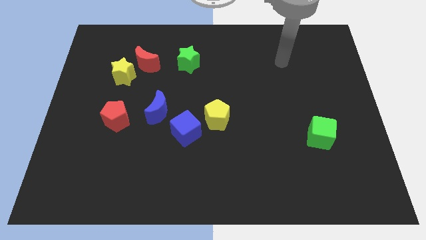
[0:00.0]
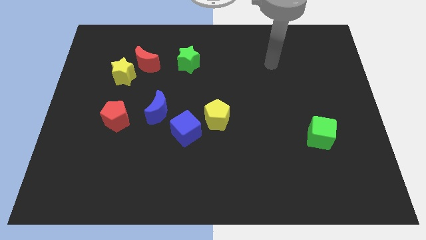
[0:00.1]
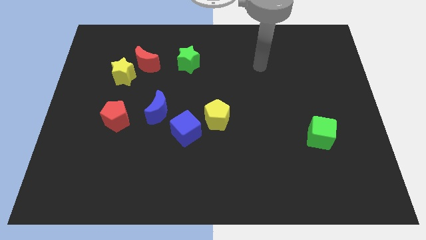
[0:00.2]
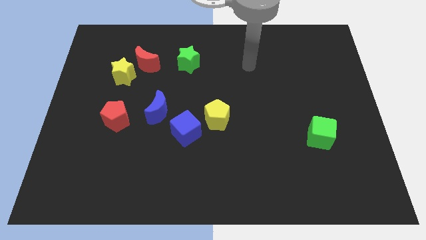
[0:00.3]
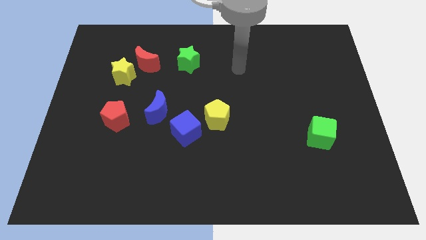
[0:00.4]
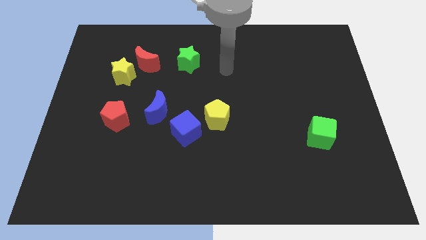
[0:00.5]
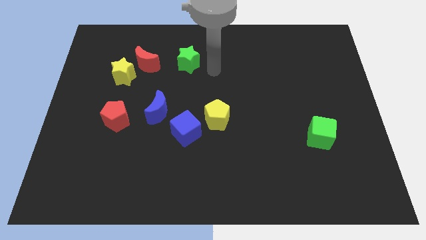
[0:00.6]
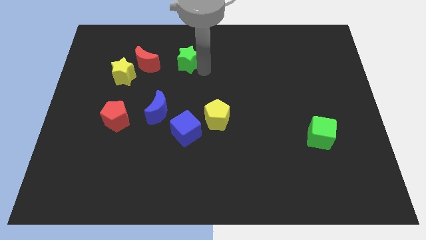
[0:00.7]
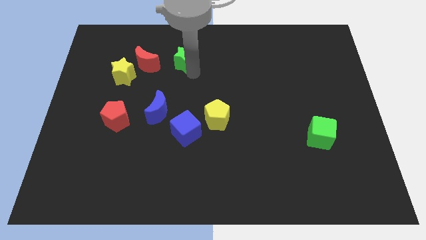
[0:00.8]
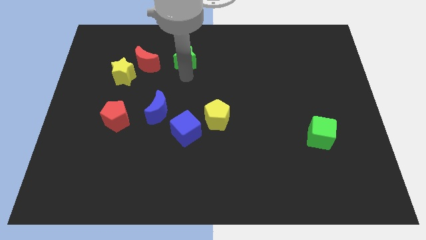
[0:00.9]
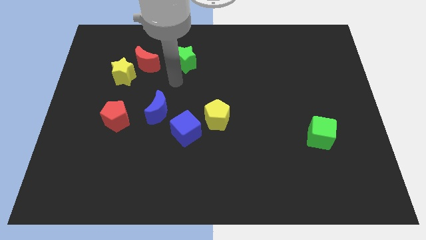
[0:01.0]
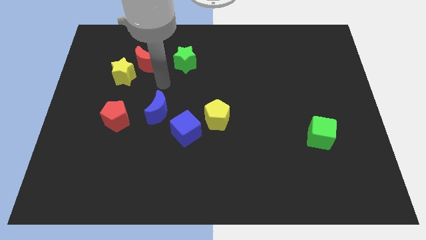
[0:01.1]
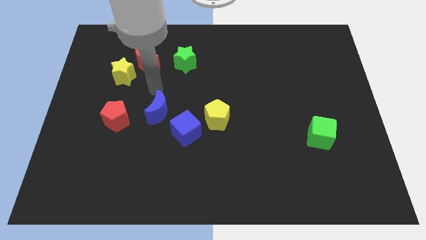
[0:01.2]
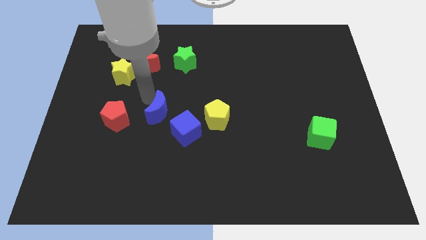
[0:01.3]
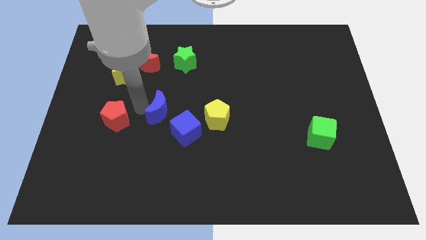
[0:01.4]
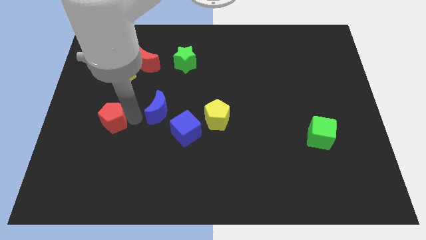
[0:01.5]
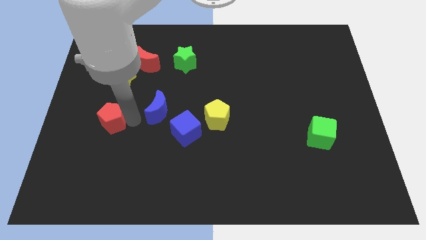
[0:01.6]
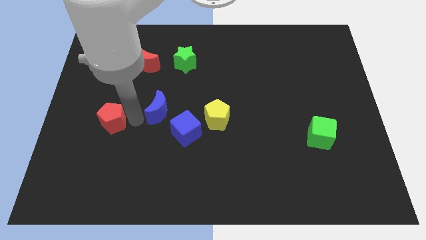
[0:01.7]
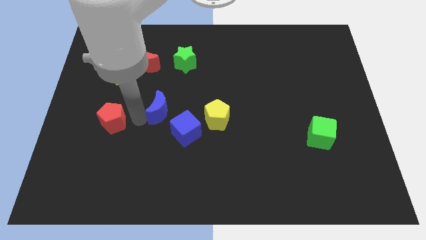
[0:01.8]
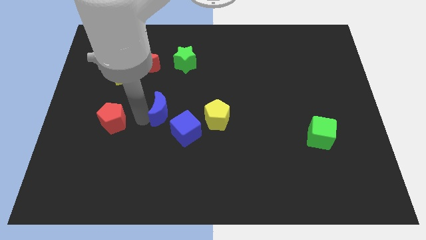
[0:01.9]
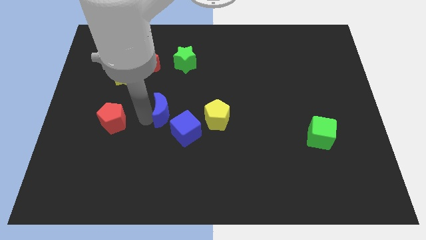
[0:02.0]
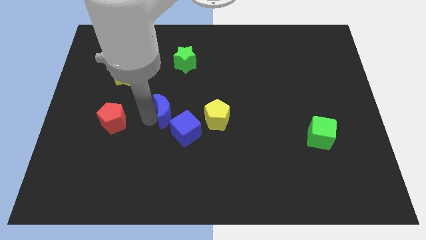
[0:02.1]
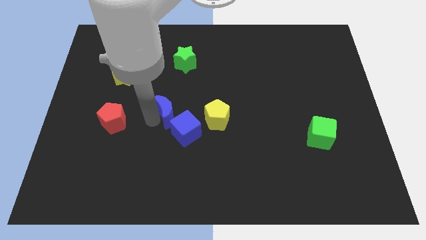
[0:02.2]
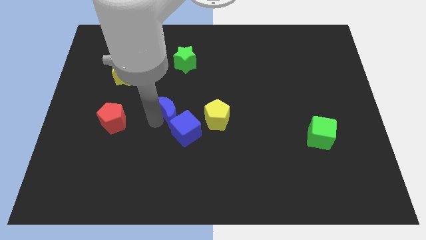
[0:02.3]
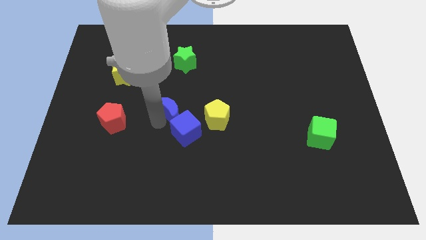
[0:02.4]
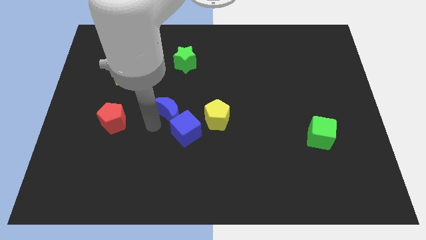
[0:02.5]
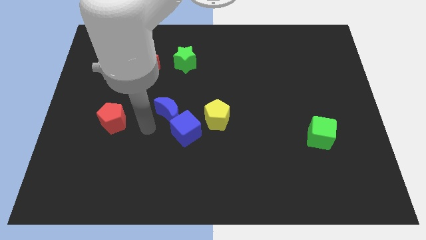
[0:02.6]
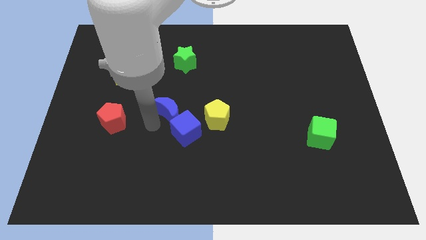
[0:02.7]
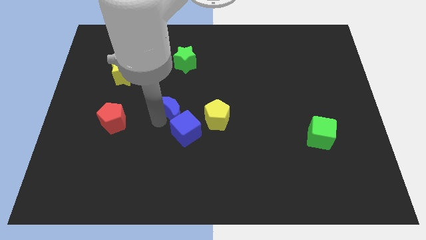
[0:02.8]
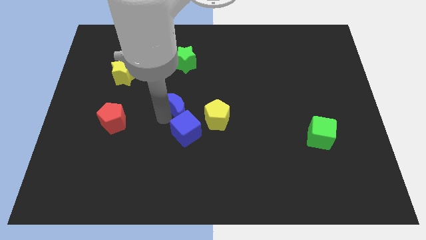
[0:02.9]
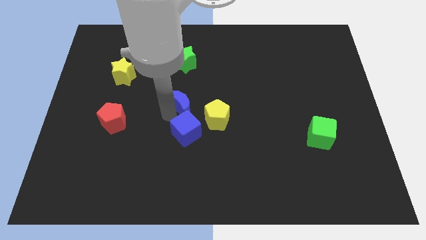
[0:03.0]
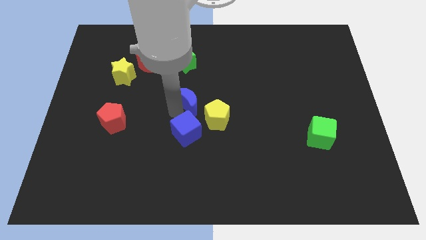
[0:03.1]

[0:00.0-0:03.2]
push the blue moon right a little

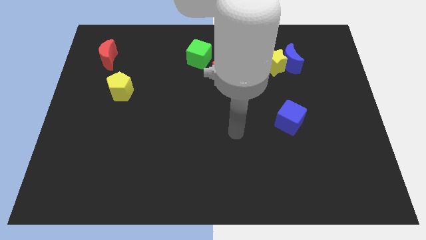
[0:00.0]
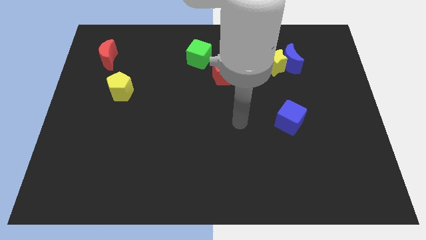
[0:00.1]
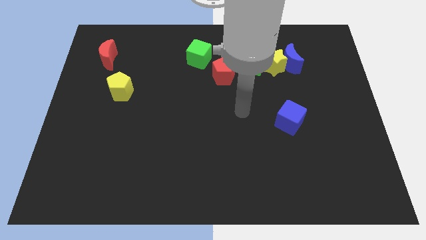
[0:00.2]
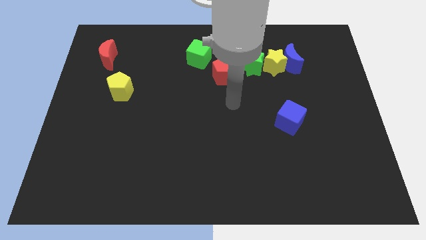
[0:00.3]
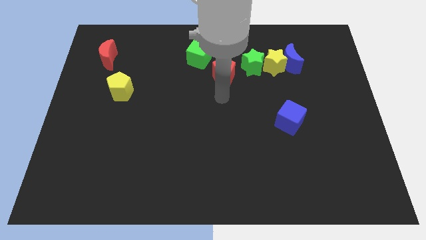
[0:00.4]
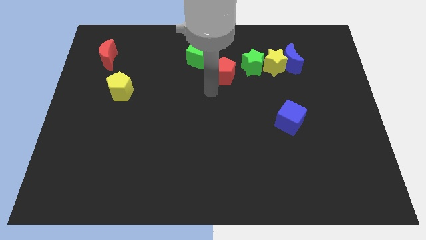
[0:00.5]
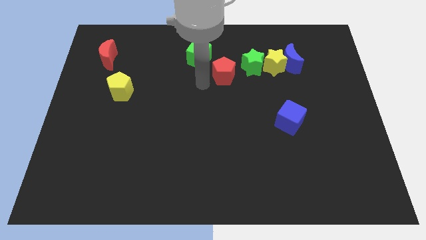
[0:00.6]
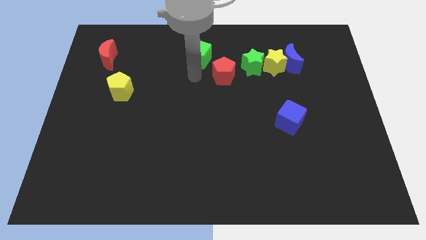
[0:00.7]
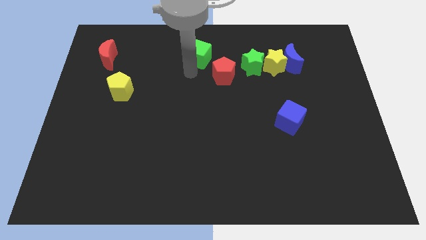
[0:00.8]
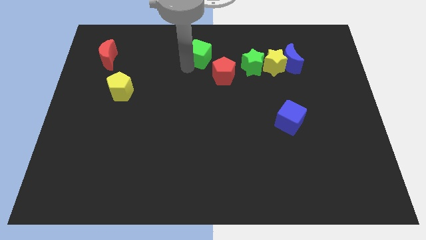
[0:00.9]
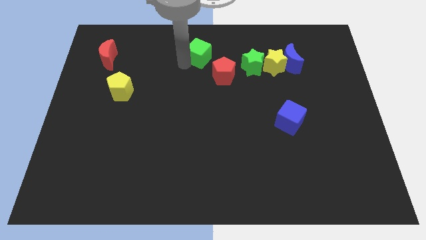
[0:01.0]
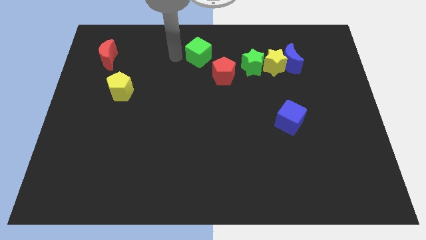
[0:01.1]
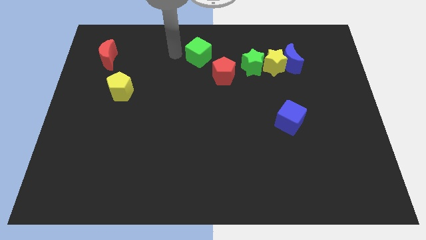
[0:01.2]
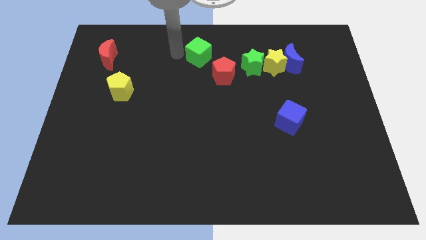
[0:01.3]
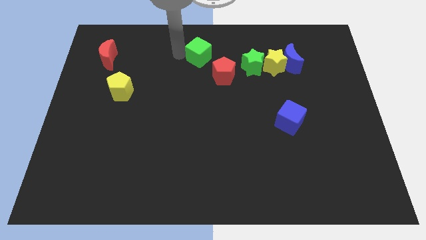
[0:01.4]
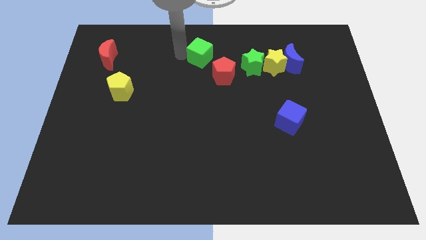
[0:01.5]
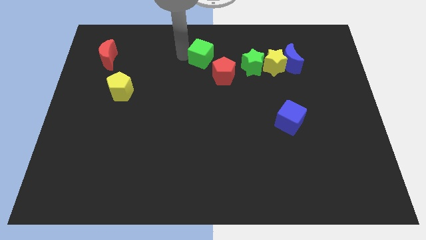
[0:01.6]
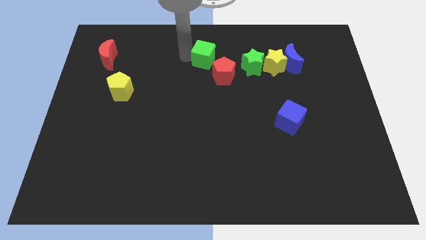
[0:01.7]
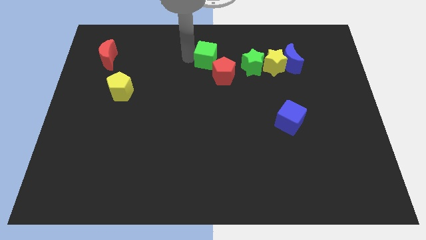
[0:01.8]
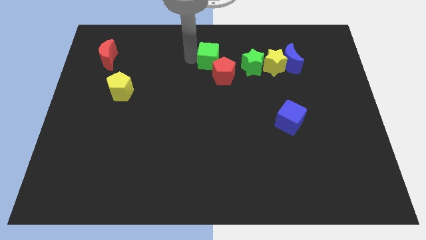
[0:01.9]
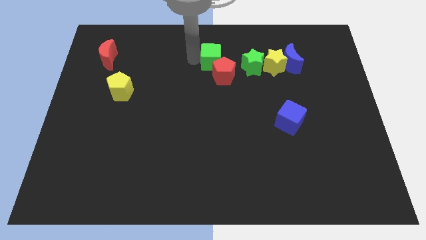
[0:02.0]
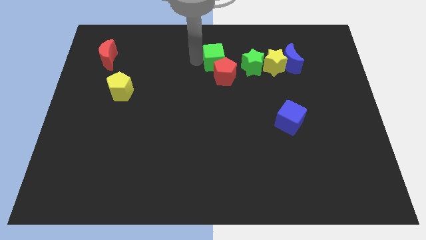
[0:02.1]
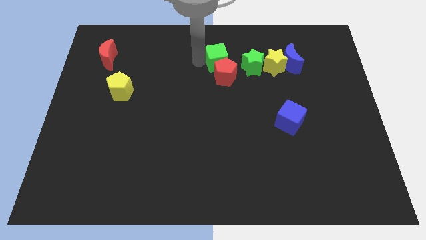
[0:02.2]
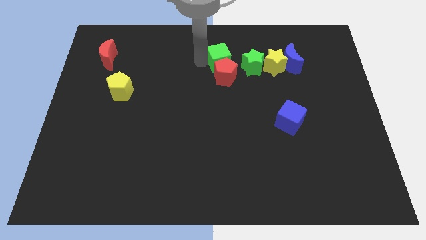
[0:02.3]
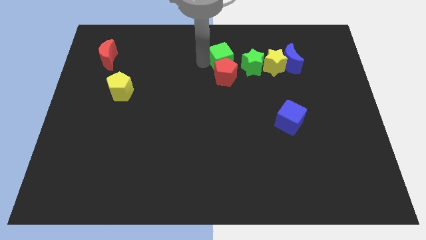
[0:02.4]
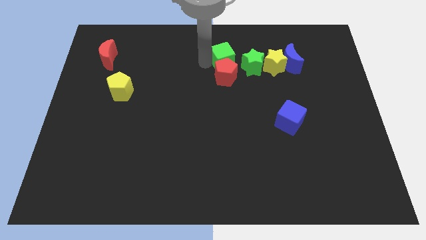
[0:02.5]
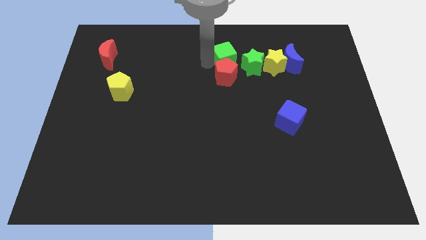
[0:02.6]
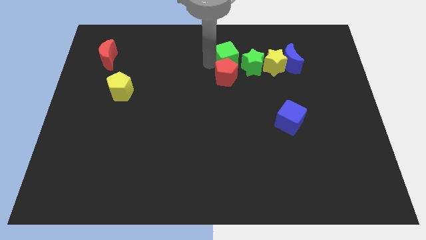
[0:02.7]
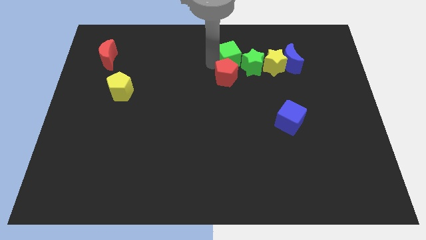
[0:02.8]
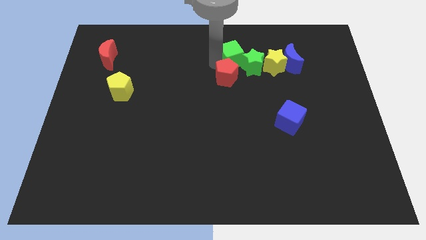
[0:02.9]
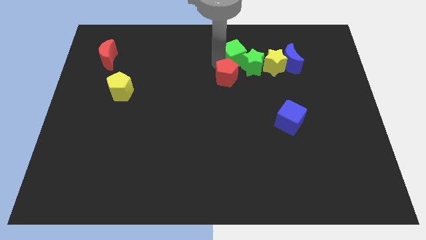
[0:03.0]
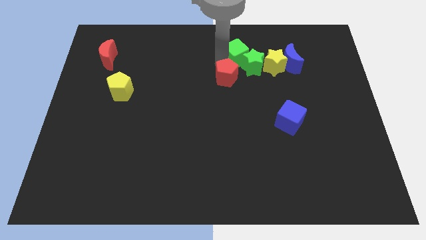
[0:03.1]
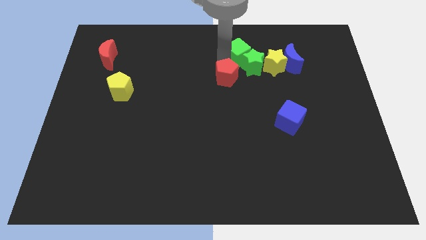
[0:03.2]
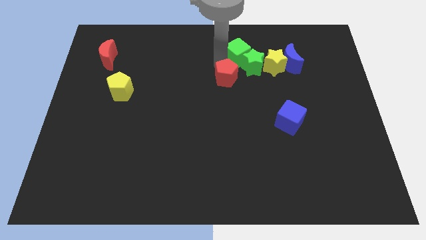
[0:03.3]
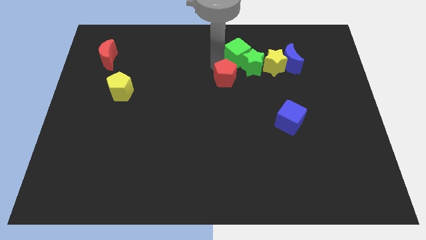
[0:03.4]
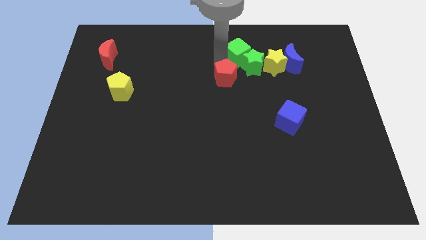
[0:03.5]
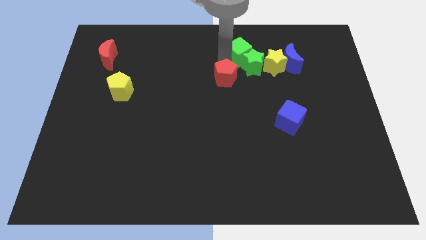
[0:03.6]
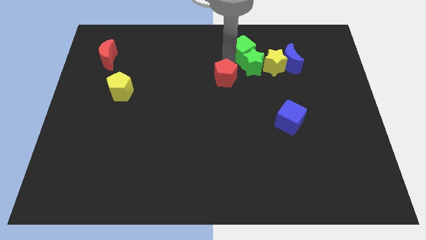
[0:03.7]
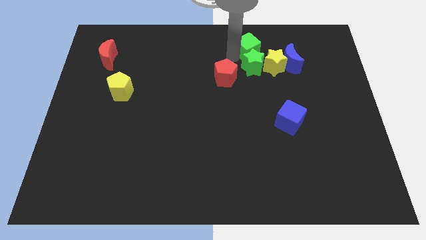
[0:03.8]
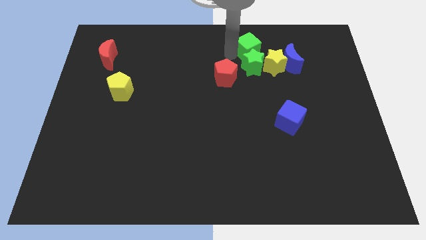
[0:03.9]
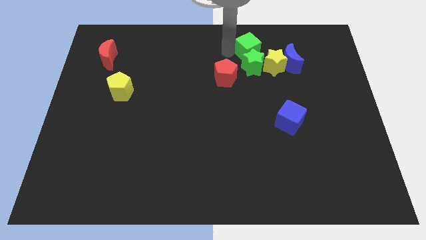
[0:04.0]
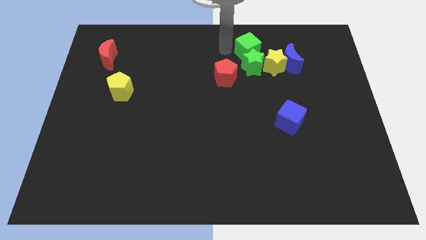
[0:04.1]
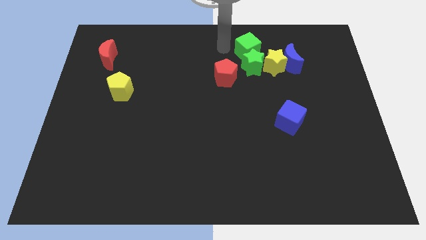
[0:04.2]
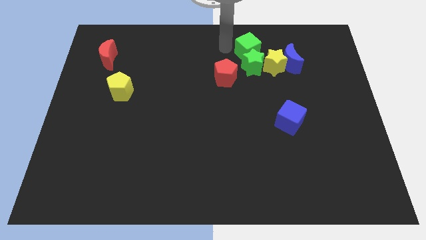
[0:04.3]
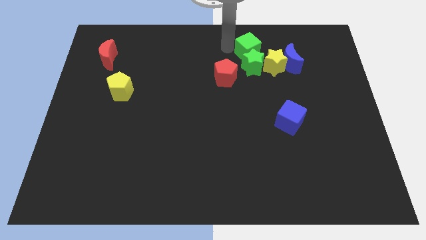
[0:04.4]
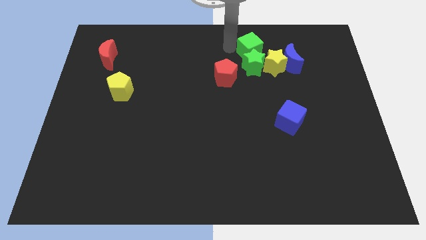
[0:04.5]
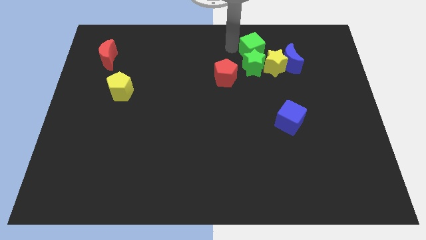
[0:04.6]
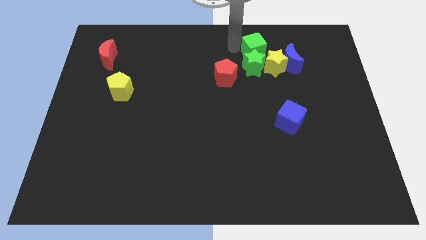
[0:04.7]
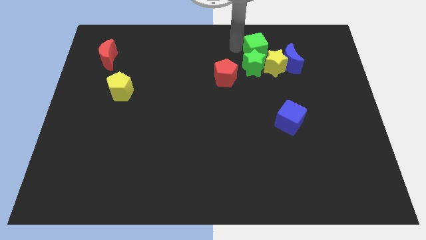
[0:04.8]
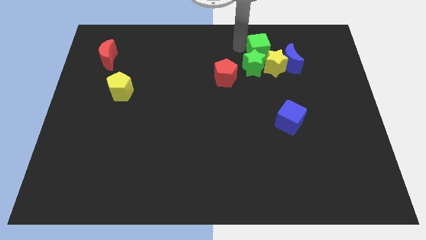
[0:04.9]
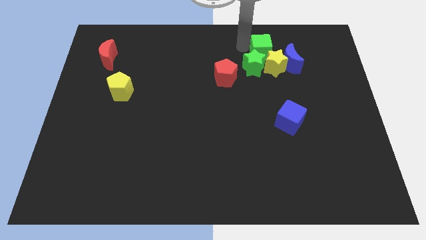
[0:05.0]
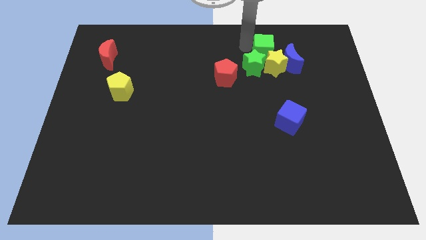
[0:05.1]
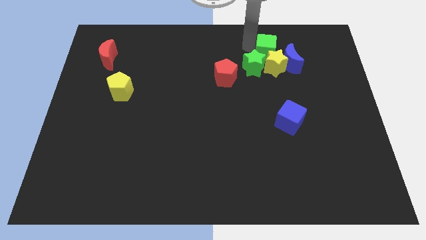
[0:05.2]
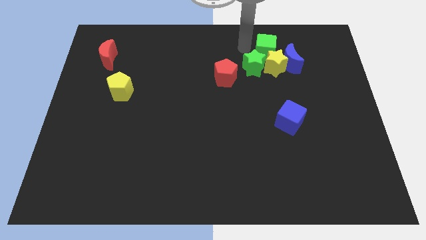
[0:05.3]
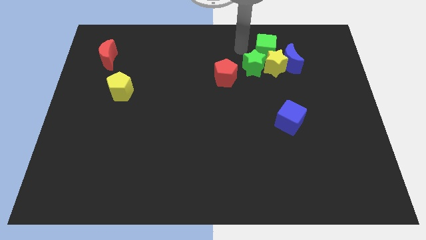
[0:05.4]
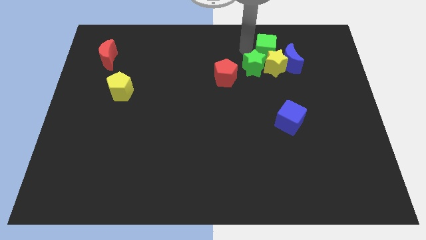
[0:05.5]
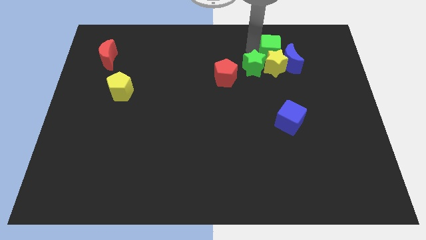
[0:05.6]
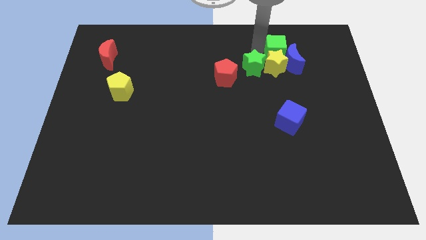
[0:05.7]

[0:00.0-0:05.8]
slide the green cube right
